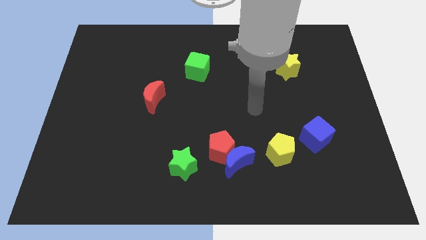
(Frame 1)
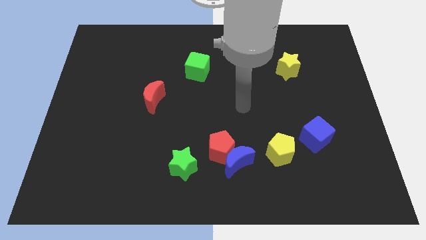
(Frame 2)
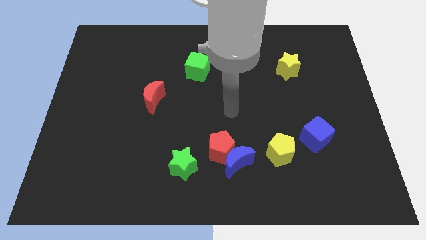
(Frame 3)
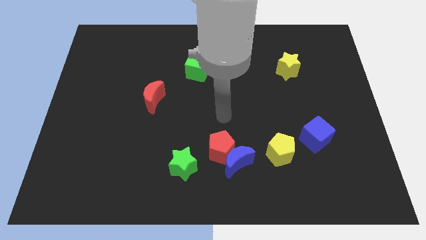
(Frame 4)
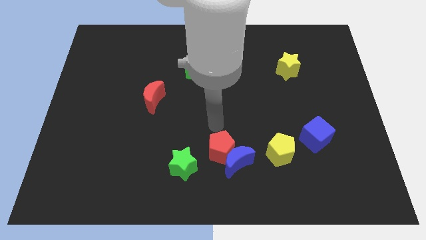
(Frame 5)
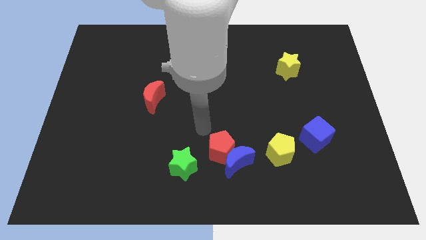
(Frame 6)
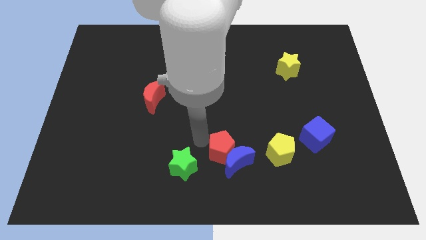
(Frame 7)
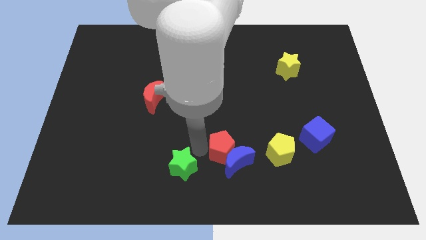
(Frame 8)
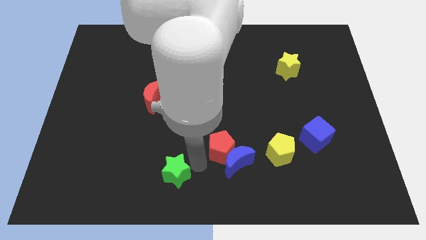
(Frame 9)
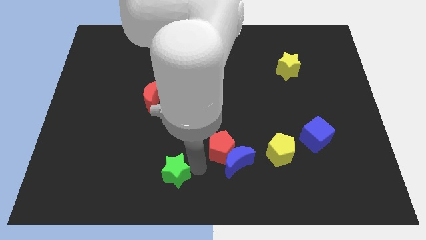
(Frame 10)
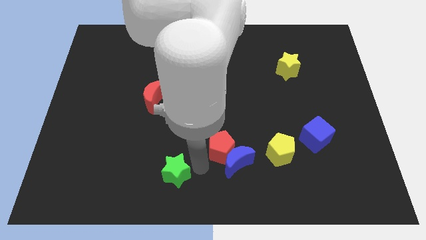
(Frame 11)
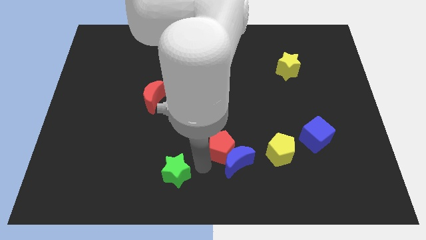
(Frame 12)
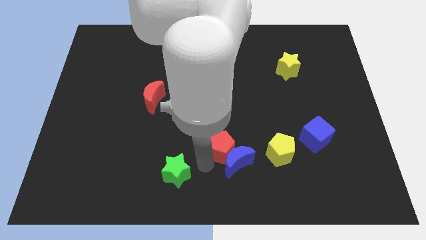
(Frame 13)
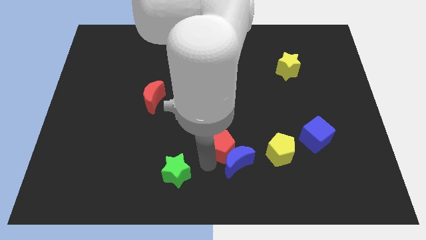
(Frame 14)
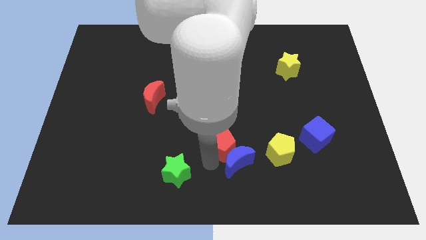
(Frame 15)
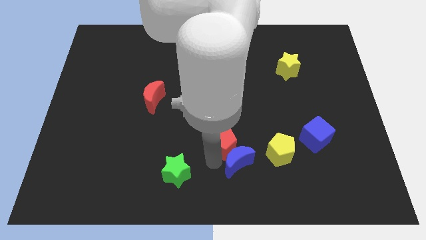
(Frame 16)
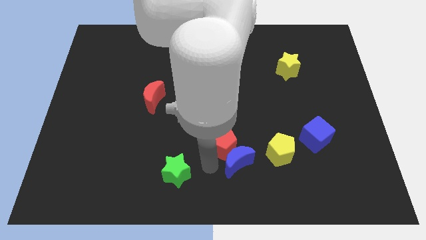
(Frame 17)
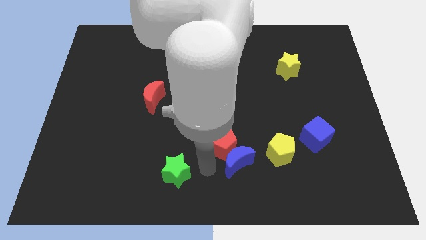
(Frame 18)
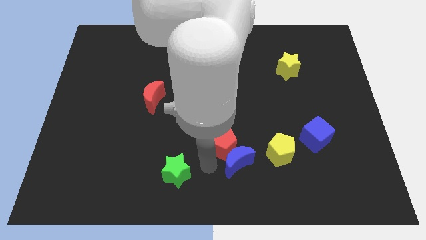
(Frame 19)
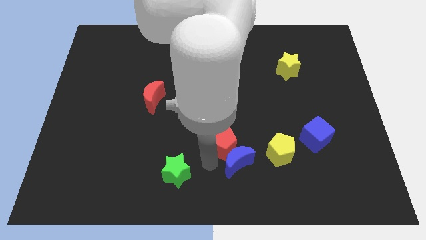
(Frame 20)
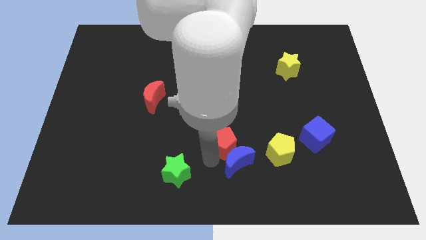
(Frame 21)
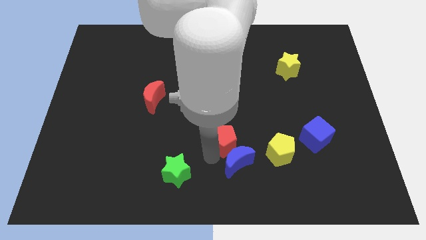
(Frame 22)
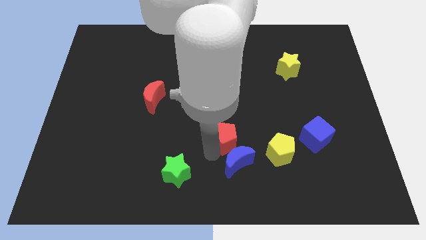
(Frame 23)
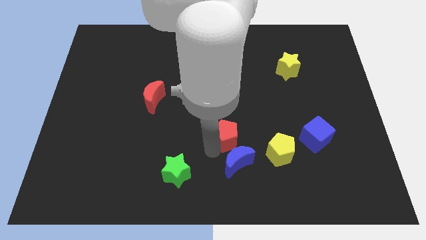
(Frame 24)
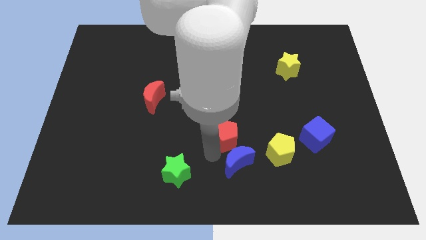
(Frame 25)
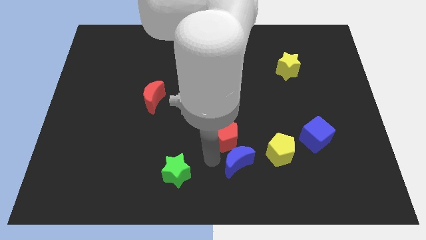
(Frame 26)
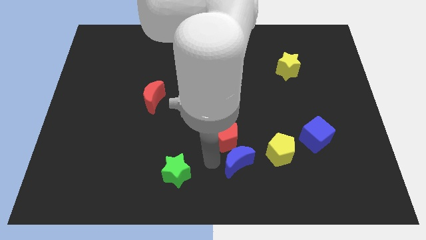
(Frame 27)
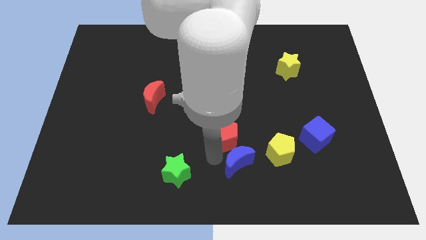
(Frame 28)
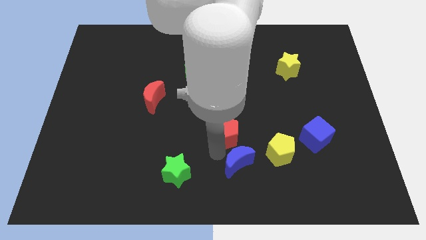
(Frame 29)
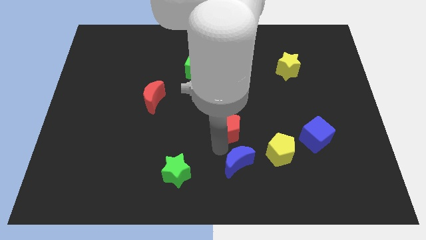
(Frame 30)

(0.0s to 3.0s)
move the red pentagon away from the blue moon and green star

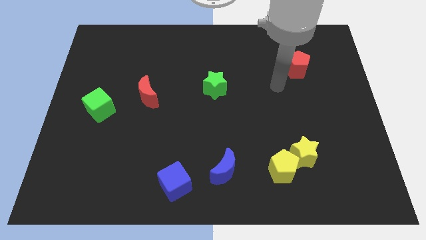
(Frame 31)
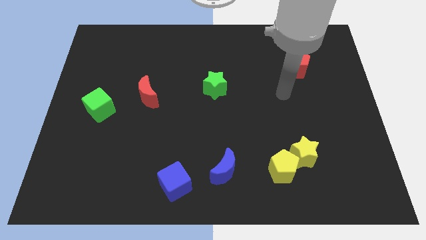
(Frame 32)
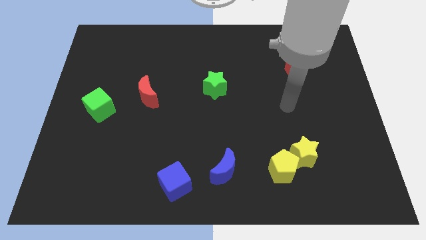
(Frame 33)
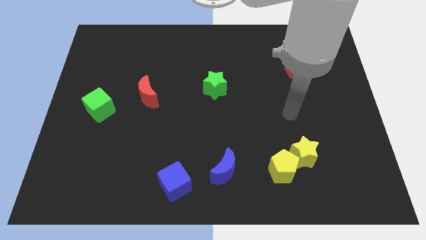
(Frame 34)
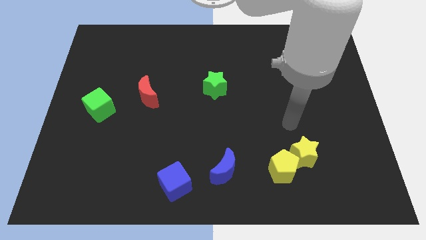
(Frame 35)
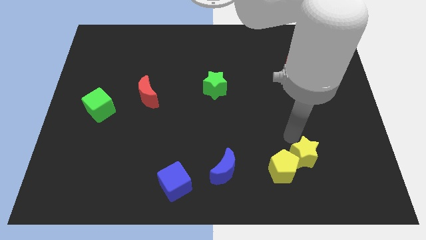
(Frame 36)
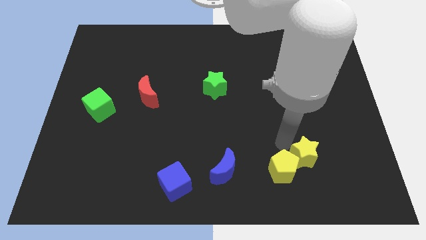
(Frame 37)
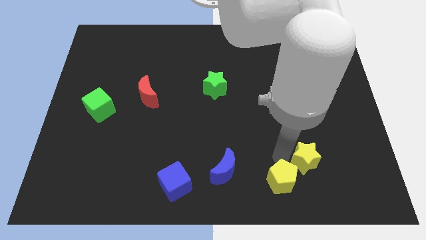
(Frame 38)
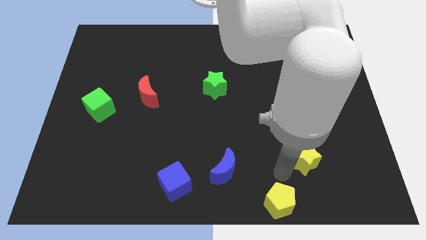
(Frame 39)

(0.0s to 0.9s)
pull the yellow star apart from the yellow pentagon

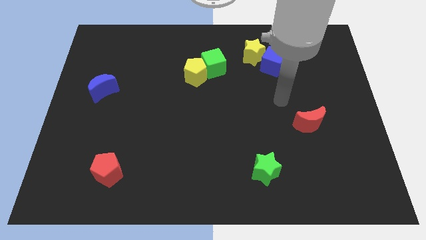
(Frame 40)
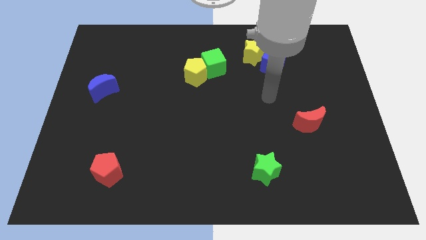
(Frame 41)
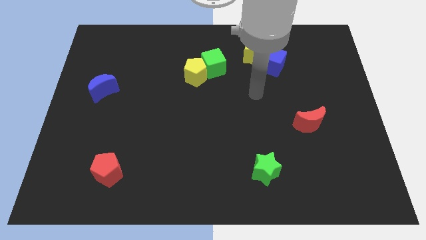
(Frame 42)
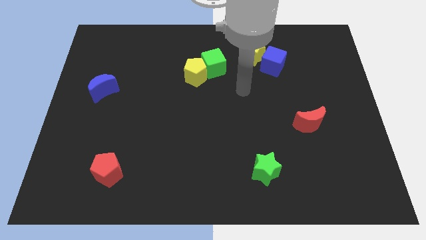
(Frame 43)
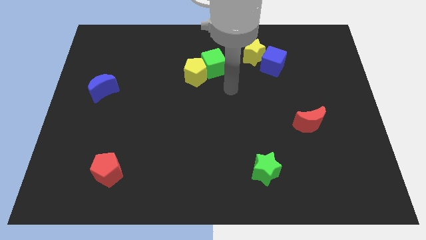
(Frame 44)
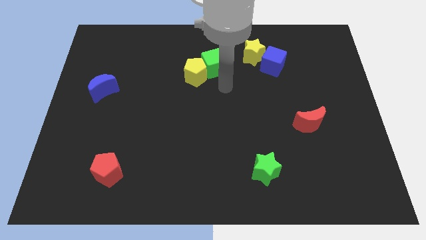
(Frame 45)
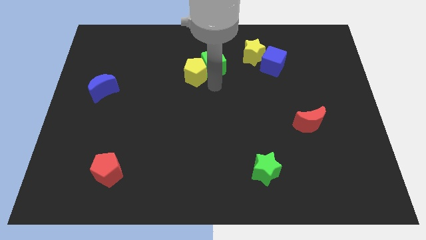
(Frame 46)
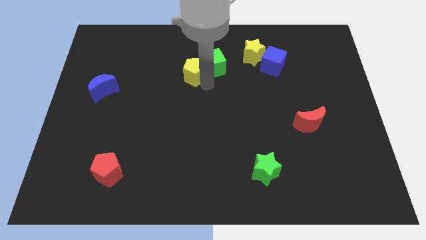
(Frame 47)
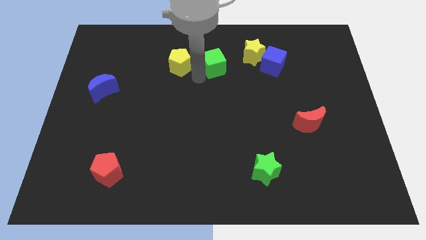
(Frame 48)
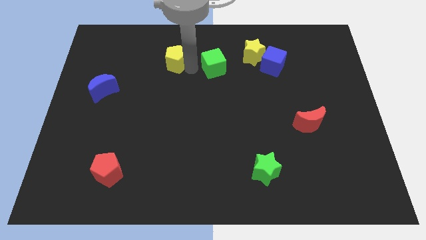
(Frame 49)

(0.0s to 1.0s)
separate the green cube from the yellow pentagon

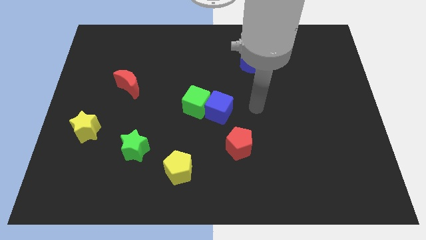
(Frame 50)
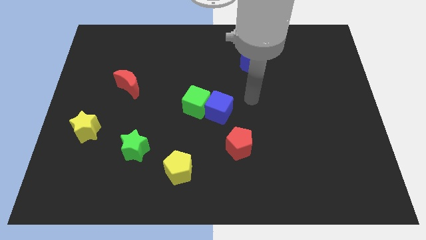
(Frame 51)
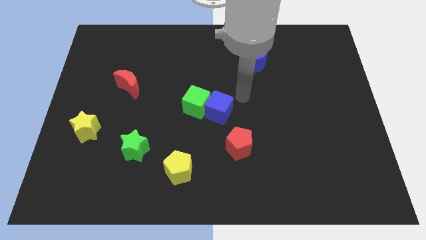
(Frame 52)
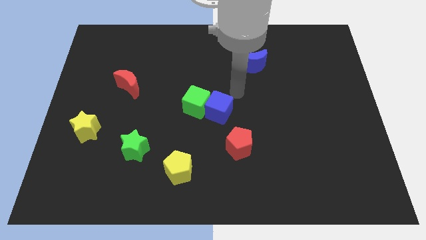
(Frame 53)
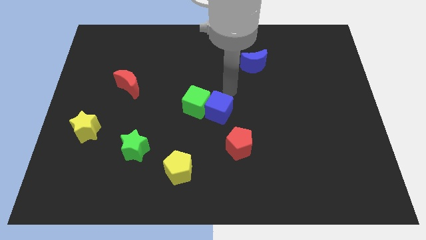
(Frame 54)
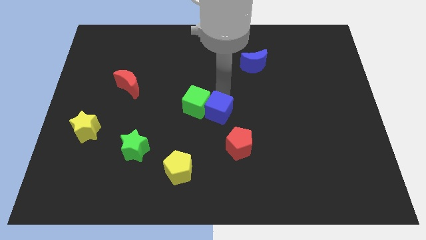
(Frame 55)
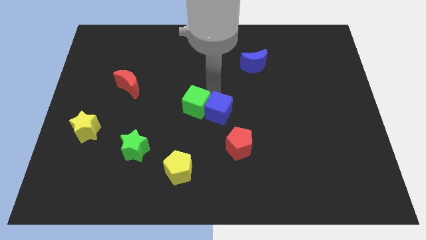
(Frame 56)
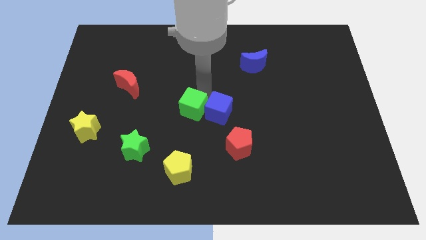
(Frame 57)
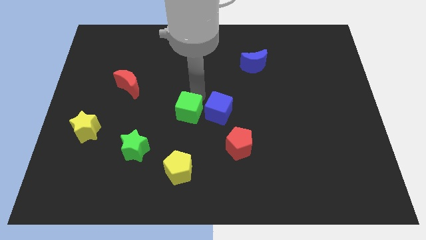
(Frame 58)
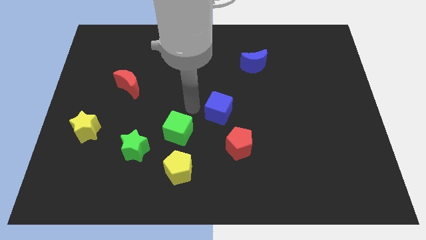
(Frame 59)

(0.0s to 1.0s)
move the blue cube away from the green cube

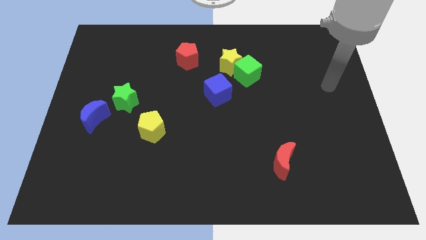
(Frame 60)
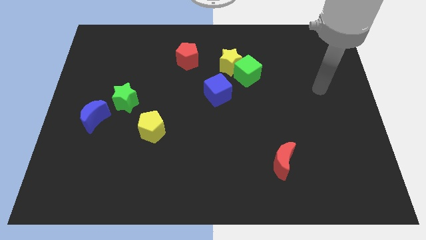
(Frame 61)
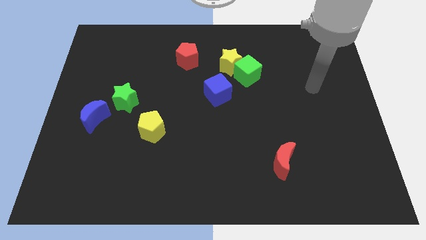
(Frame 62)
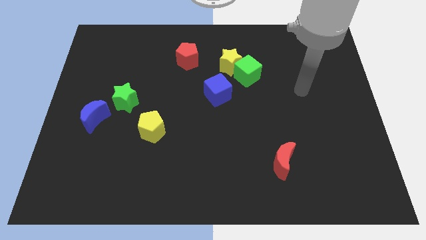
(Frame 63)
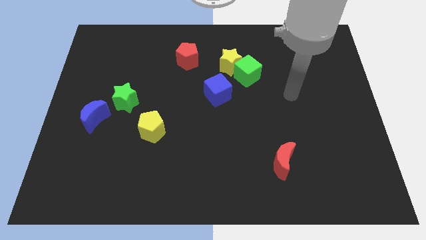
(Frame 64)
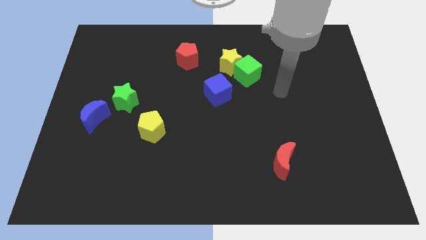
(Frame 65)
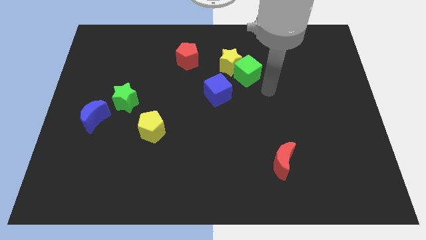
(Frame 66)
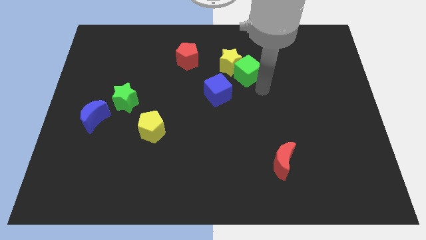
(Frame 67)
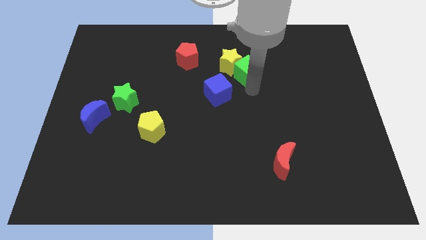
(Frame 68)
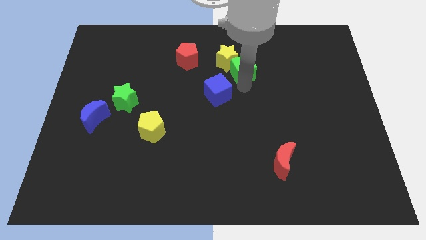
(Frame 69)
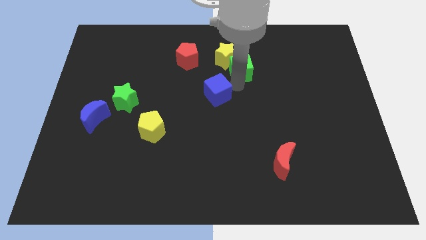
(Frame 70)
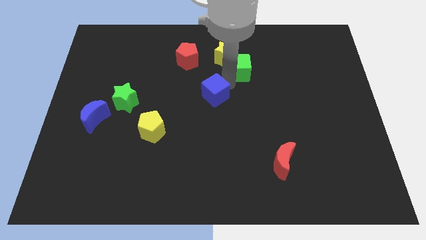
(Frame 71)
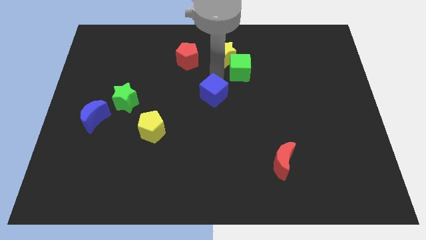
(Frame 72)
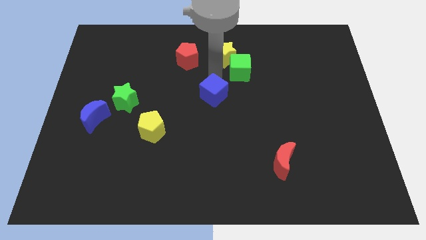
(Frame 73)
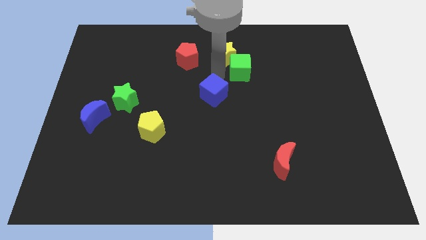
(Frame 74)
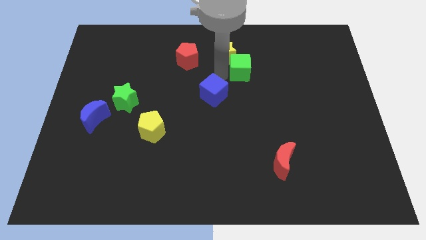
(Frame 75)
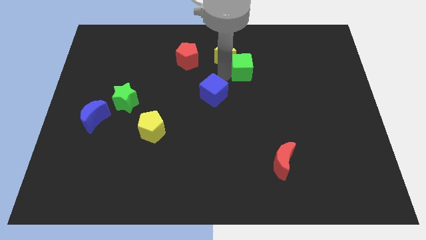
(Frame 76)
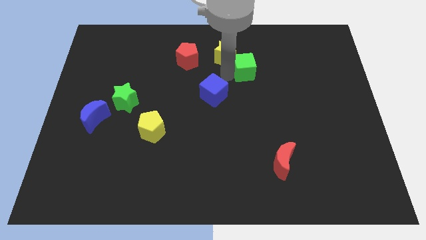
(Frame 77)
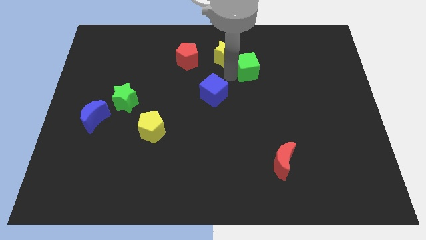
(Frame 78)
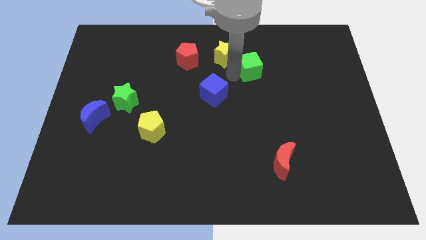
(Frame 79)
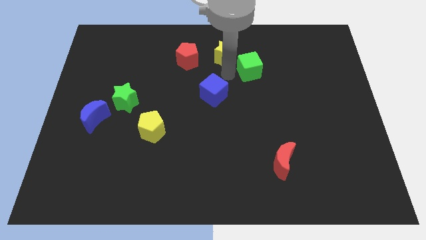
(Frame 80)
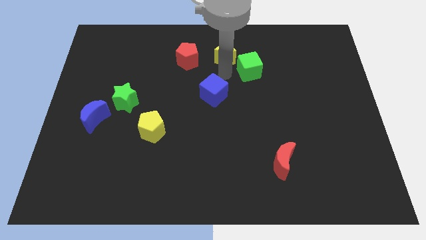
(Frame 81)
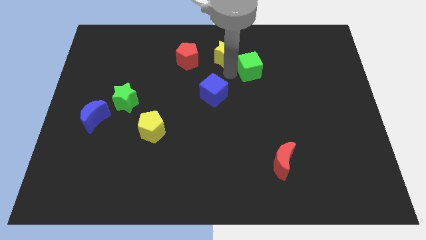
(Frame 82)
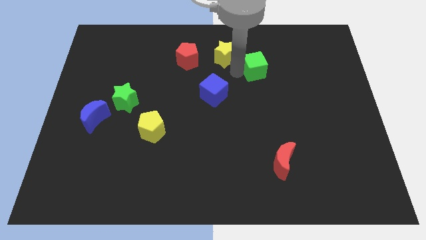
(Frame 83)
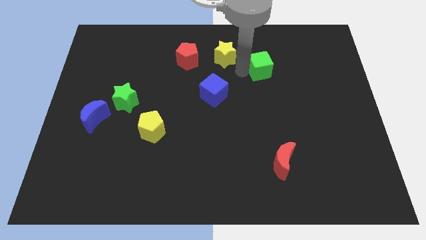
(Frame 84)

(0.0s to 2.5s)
move the green cube away from the yellow star and blue cube

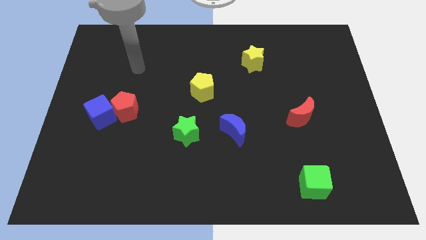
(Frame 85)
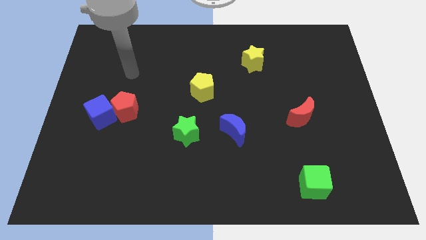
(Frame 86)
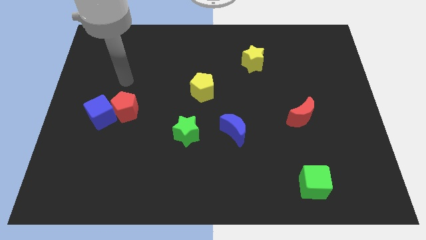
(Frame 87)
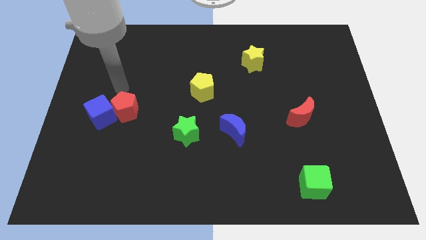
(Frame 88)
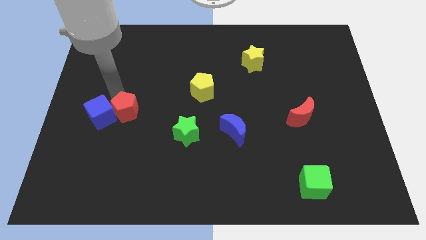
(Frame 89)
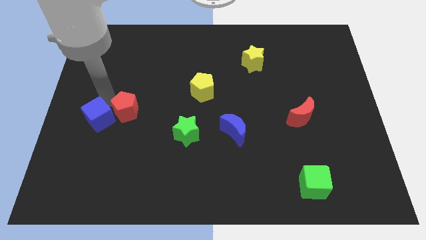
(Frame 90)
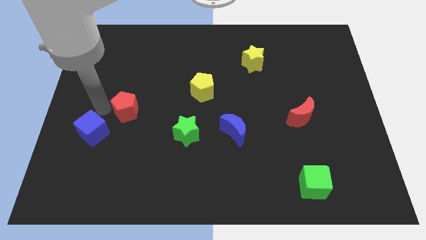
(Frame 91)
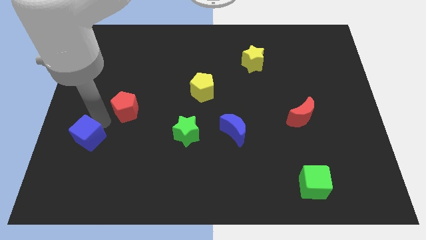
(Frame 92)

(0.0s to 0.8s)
separate the red pentagon from the blue cube

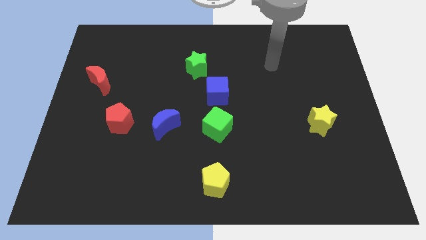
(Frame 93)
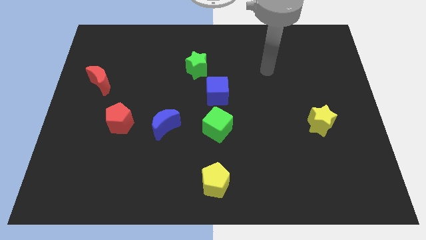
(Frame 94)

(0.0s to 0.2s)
move the green cube away from the blue cube
